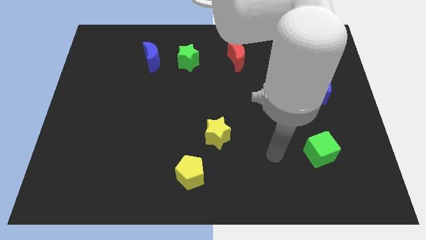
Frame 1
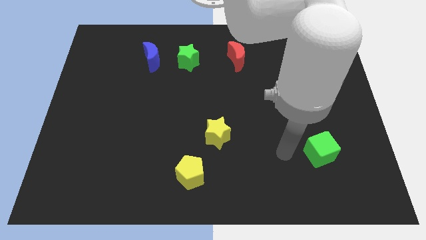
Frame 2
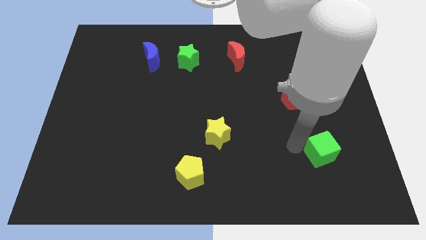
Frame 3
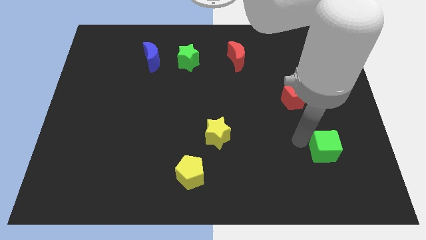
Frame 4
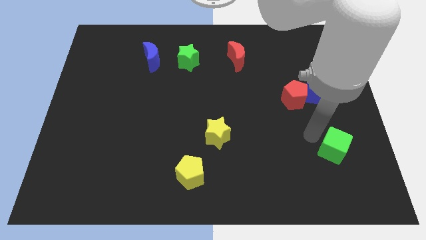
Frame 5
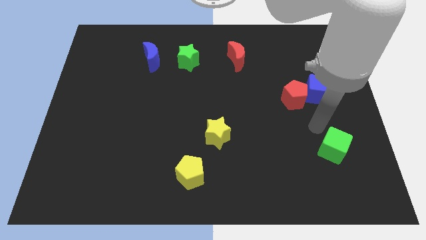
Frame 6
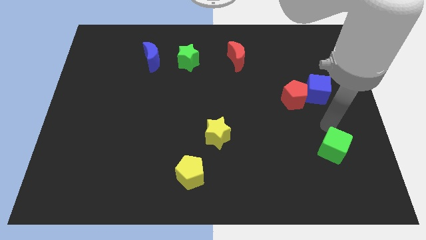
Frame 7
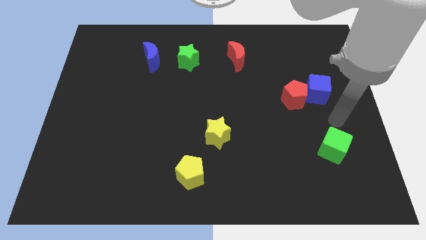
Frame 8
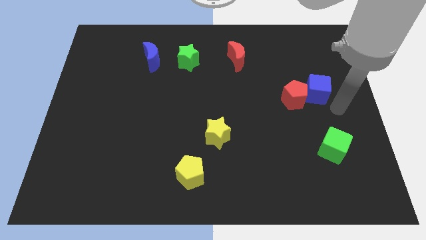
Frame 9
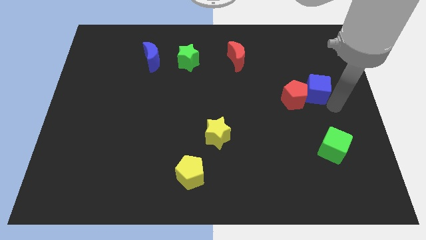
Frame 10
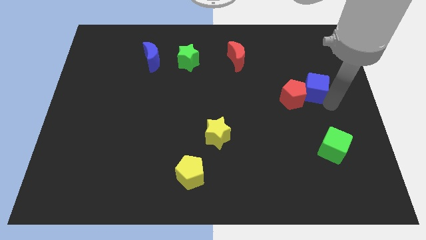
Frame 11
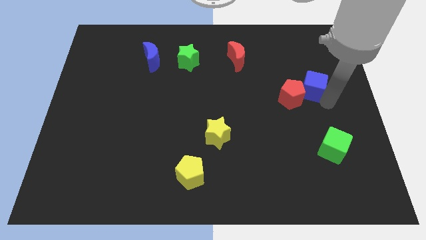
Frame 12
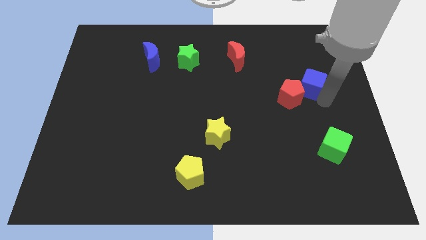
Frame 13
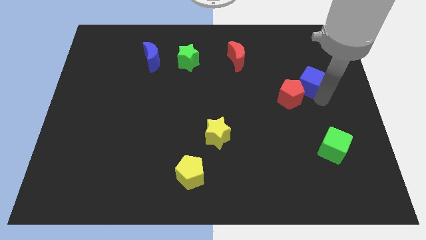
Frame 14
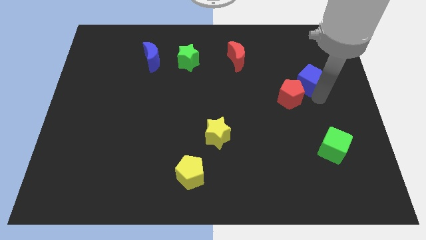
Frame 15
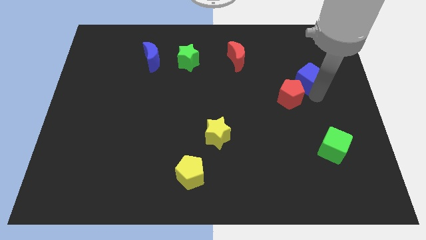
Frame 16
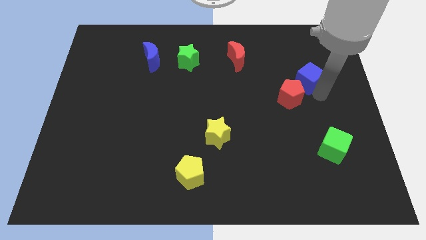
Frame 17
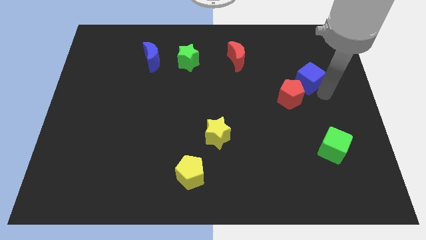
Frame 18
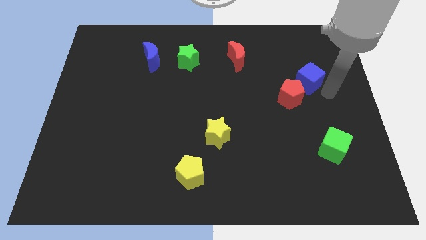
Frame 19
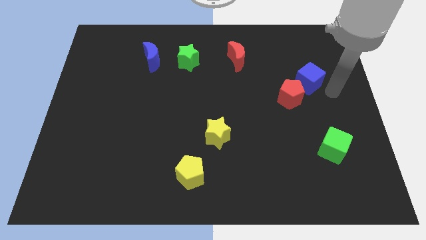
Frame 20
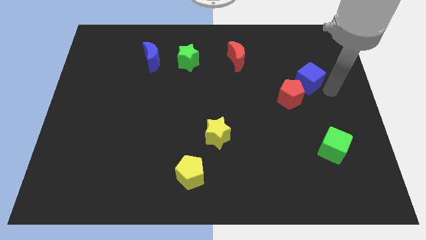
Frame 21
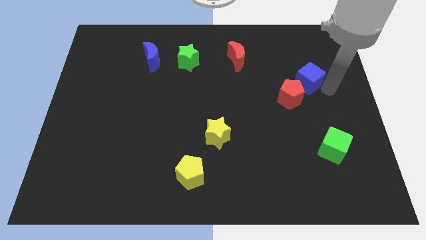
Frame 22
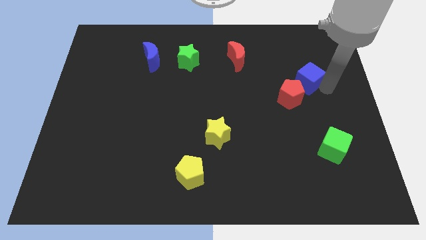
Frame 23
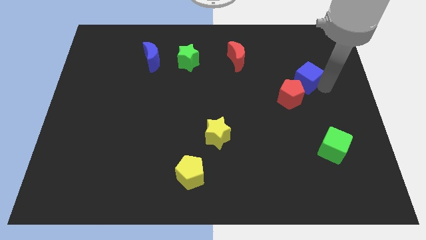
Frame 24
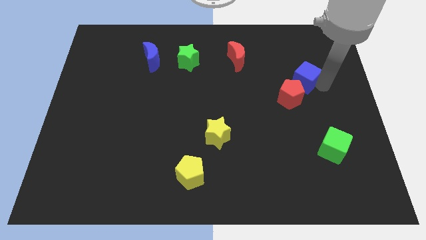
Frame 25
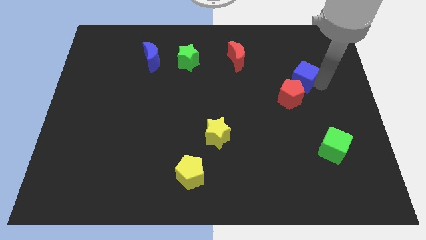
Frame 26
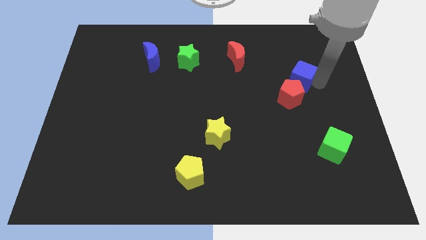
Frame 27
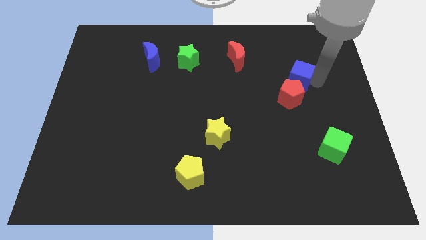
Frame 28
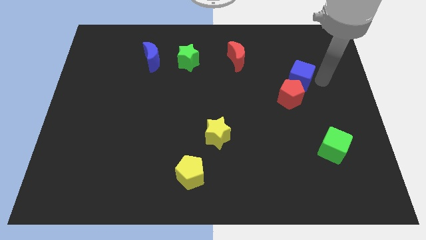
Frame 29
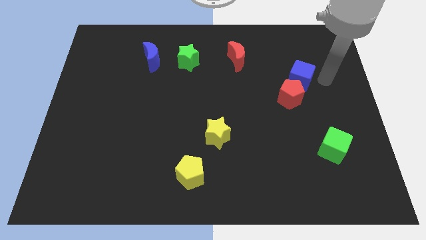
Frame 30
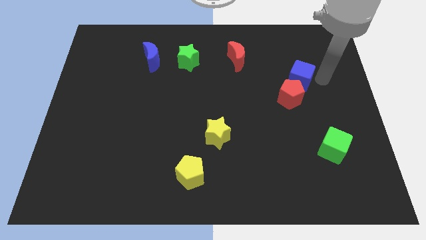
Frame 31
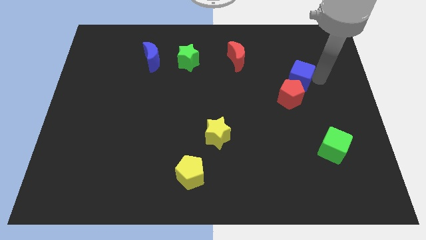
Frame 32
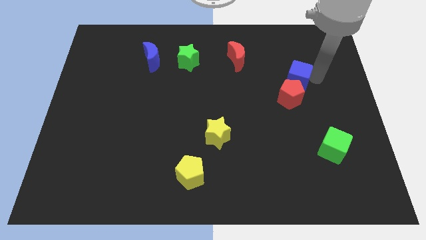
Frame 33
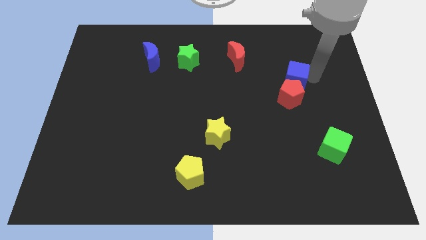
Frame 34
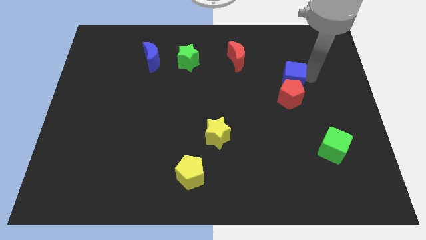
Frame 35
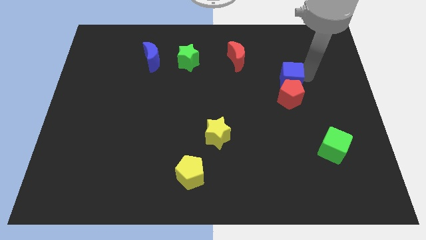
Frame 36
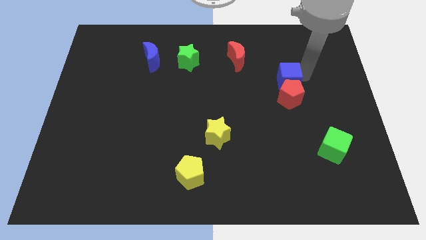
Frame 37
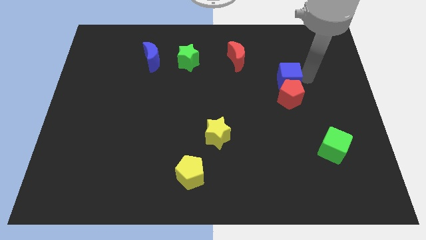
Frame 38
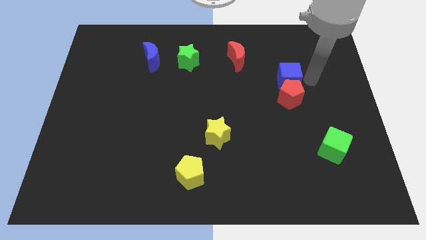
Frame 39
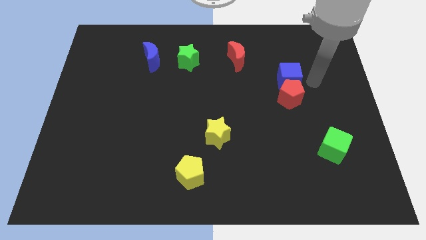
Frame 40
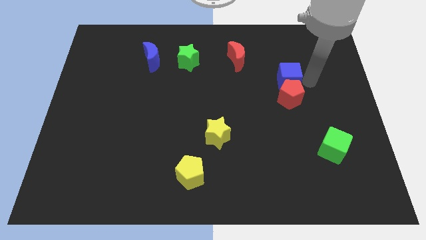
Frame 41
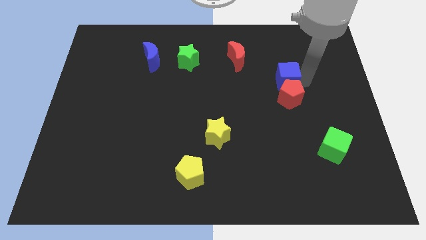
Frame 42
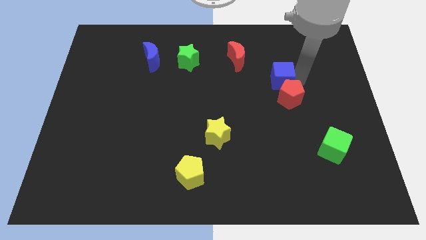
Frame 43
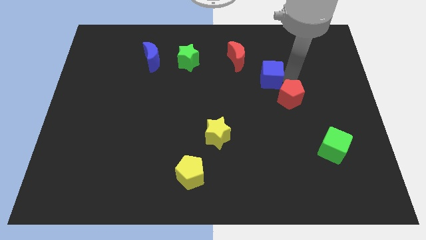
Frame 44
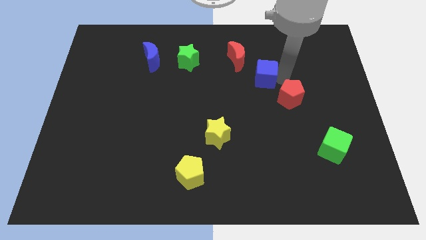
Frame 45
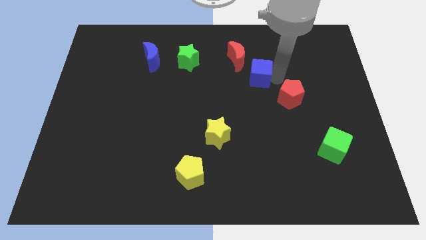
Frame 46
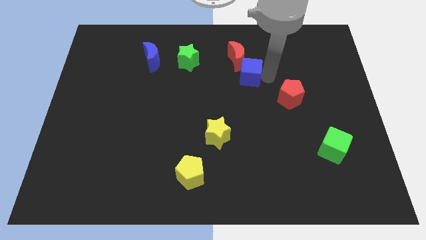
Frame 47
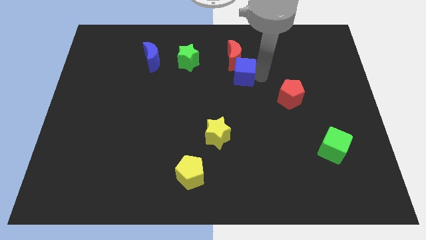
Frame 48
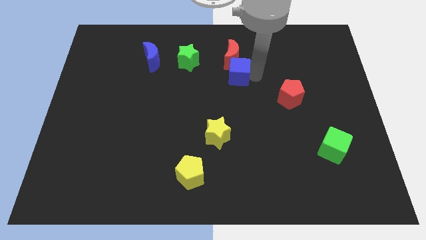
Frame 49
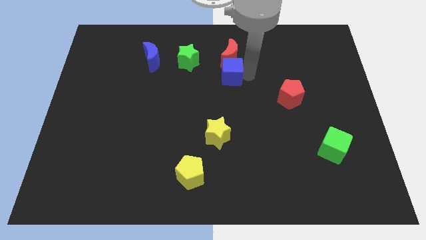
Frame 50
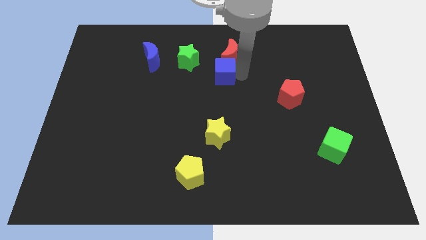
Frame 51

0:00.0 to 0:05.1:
push the blue cube to the bottom right side of the green star

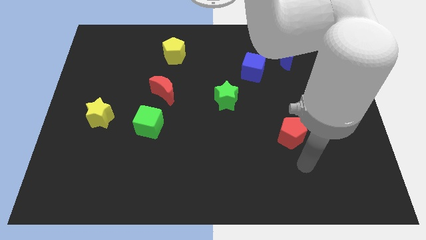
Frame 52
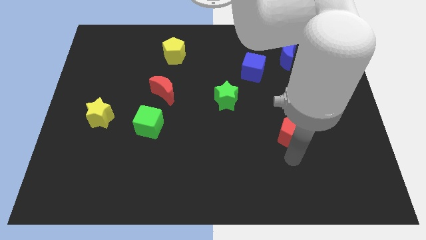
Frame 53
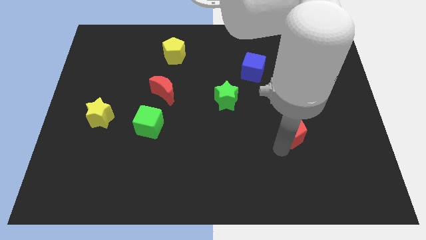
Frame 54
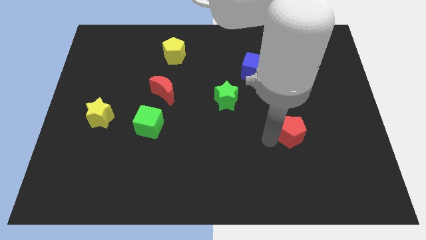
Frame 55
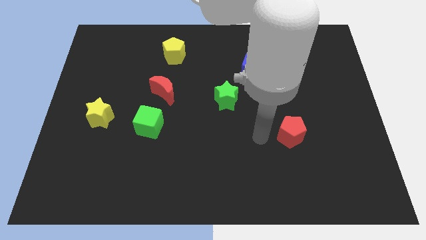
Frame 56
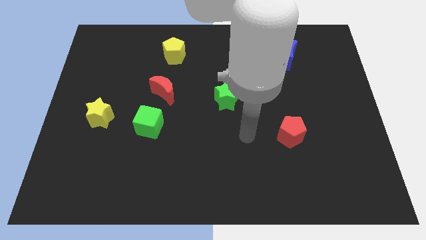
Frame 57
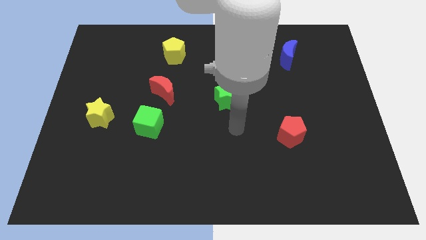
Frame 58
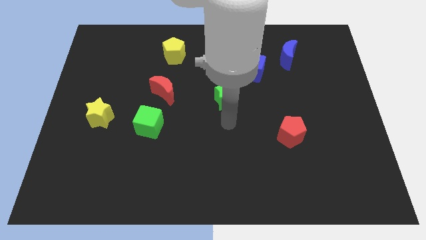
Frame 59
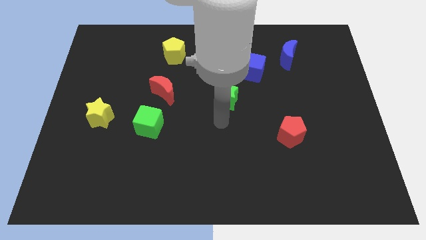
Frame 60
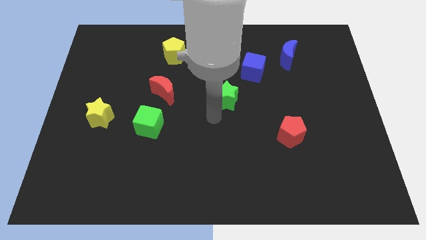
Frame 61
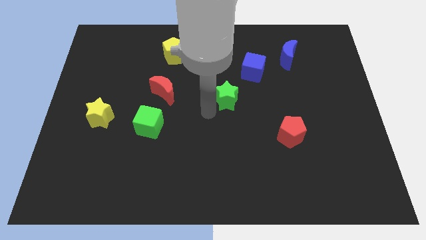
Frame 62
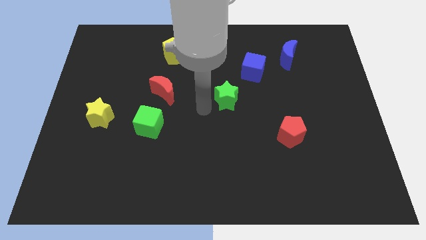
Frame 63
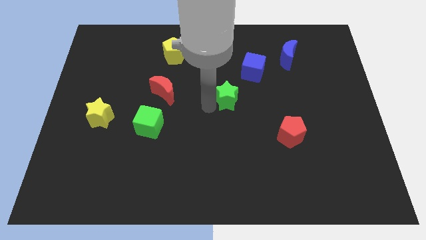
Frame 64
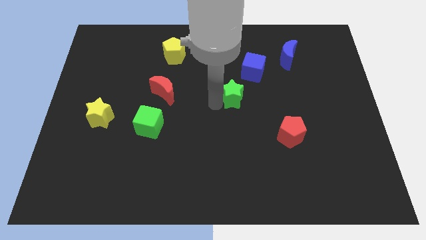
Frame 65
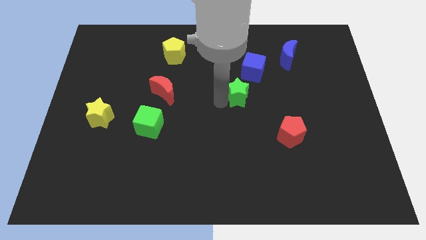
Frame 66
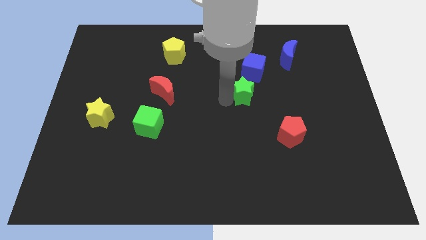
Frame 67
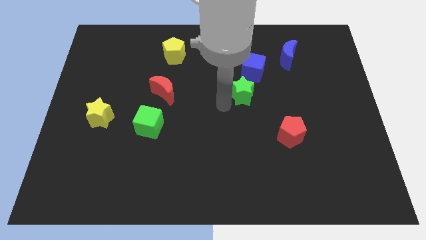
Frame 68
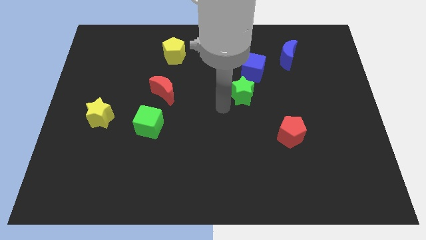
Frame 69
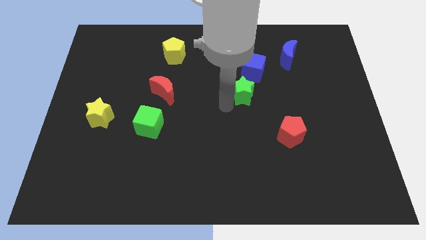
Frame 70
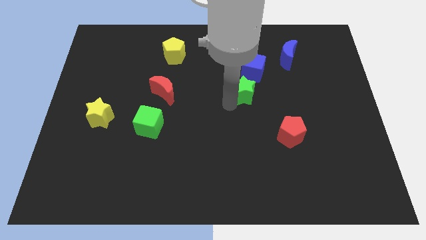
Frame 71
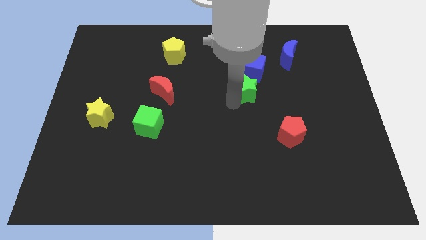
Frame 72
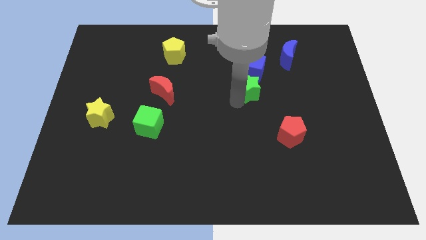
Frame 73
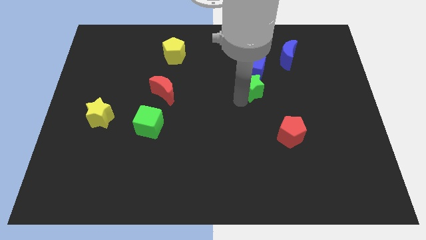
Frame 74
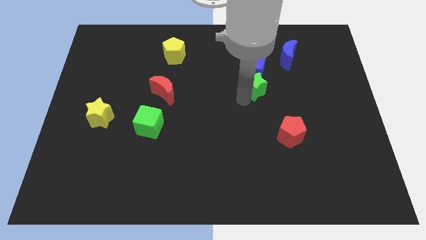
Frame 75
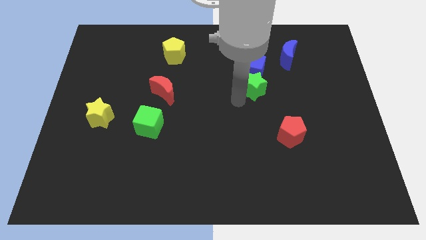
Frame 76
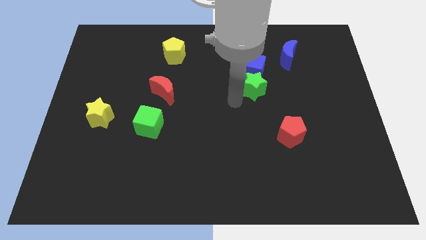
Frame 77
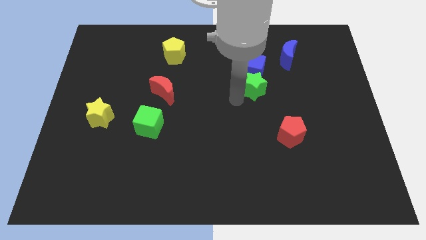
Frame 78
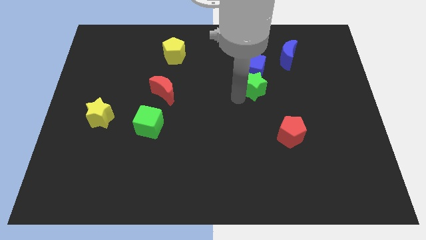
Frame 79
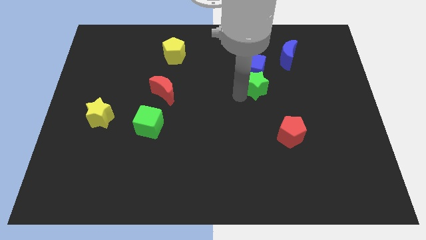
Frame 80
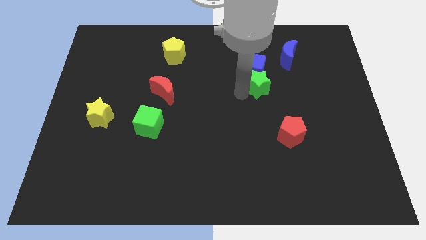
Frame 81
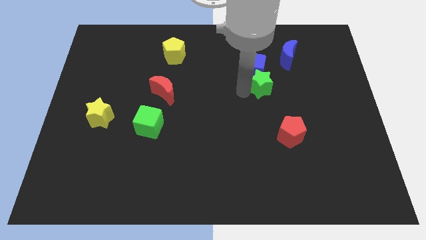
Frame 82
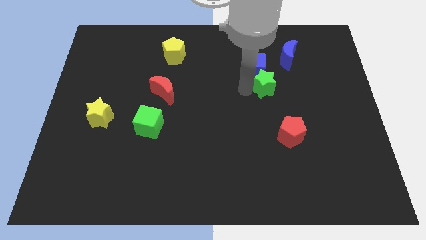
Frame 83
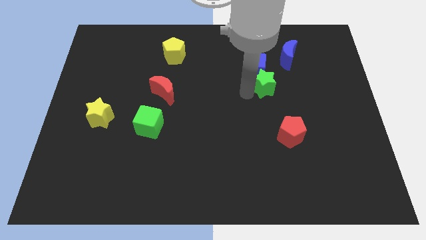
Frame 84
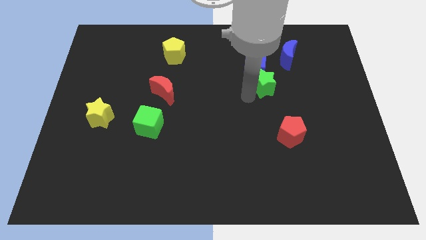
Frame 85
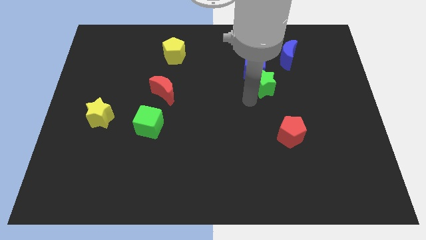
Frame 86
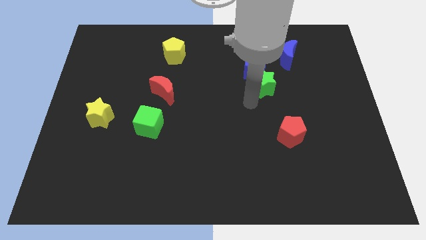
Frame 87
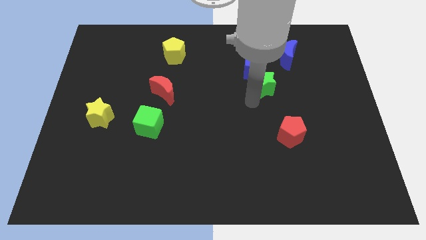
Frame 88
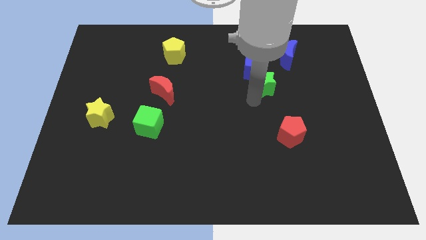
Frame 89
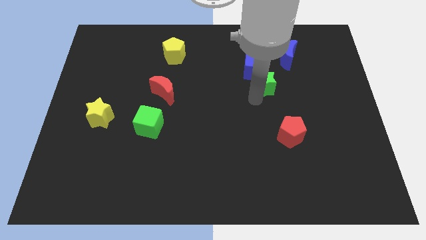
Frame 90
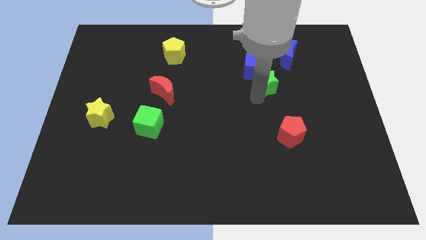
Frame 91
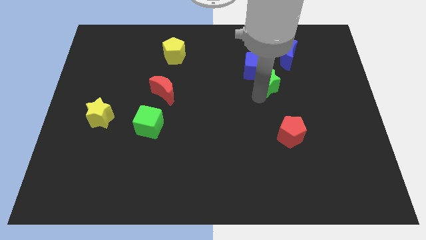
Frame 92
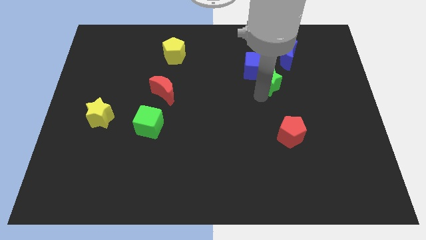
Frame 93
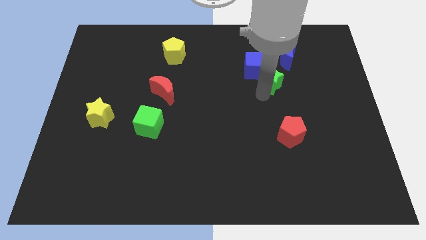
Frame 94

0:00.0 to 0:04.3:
push the green star to the right side of the blue cube
